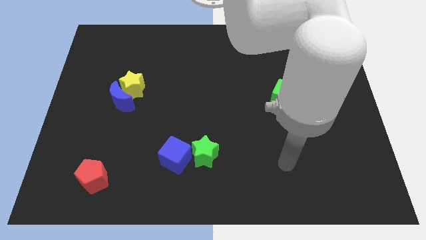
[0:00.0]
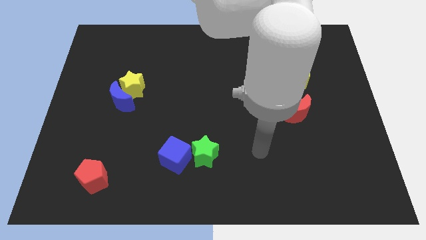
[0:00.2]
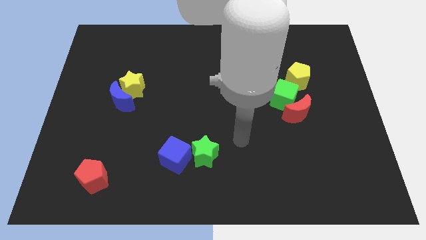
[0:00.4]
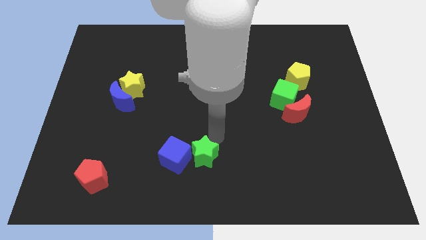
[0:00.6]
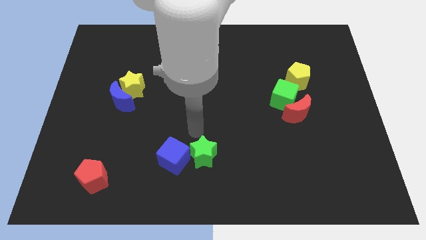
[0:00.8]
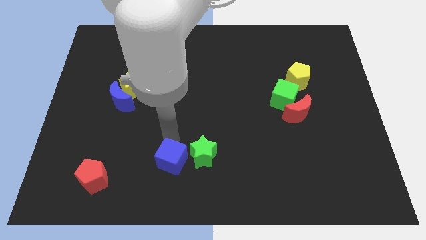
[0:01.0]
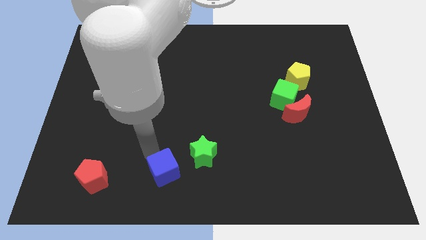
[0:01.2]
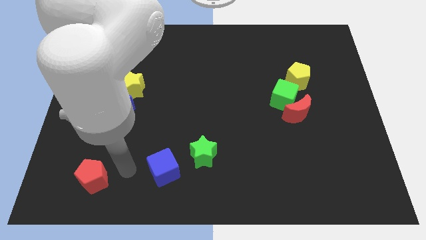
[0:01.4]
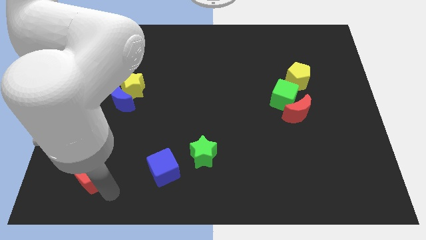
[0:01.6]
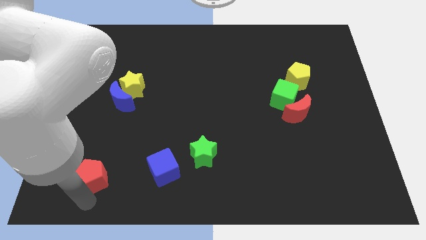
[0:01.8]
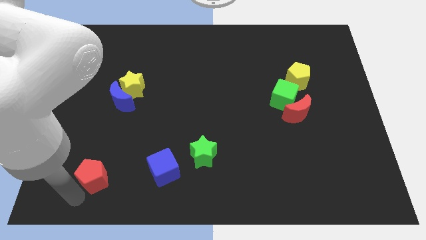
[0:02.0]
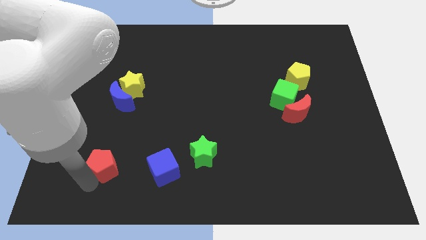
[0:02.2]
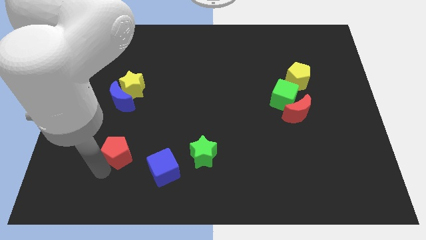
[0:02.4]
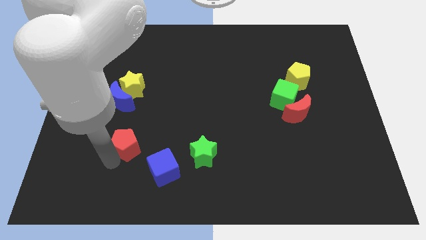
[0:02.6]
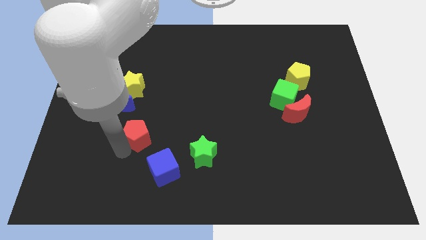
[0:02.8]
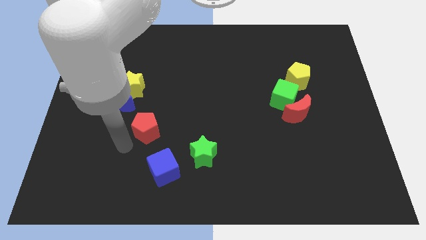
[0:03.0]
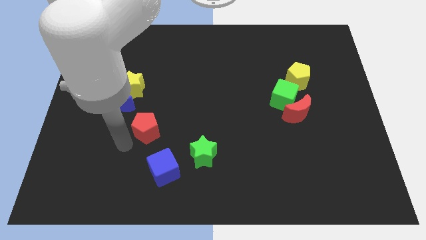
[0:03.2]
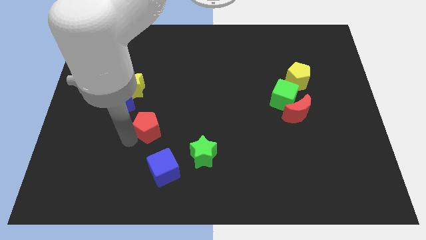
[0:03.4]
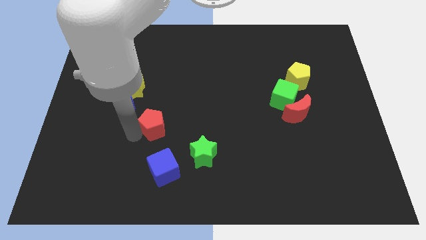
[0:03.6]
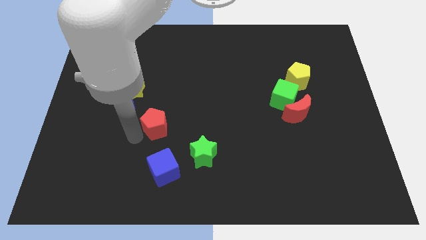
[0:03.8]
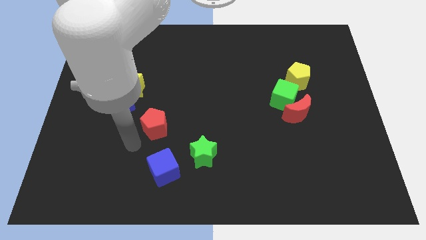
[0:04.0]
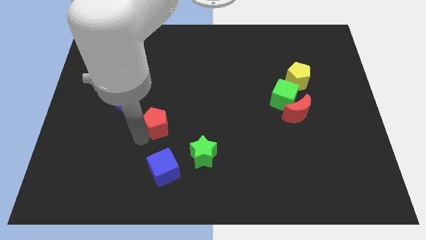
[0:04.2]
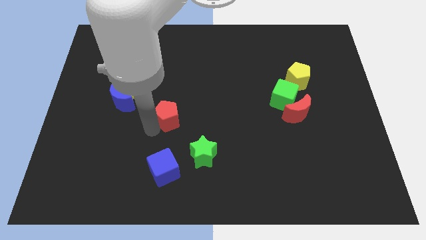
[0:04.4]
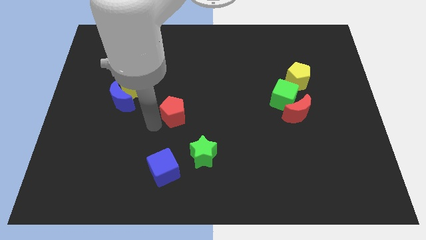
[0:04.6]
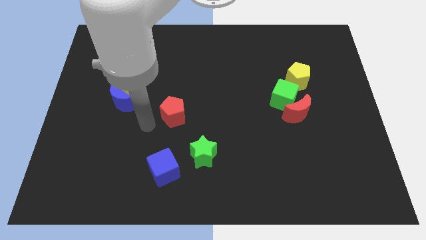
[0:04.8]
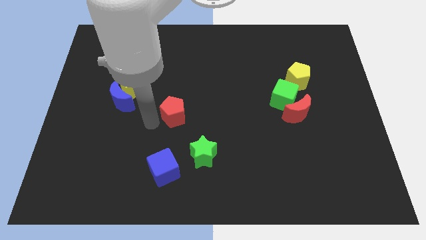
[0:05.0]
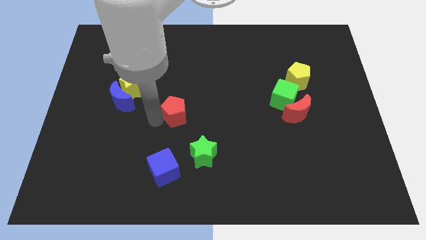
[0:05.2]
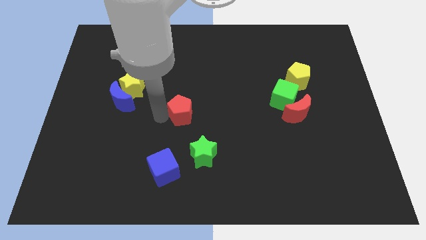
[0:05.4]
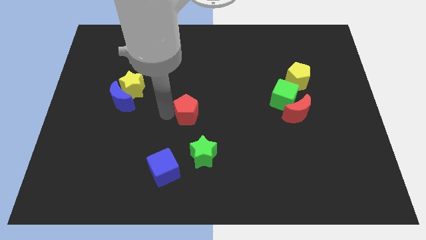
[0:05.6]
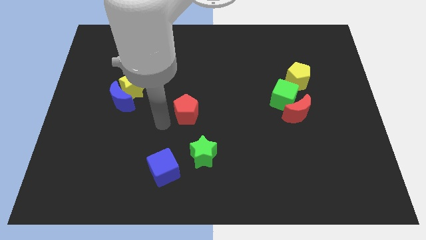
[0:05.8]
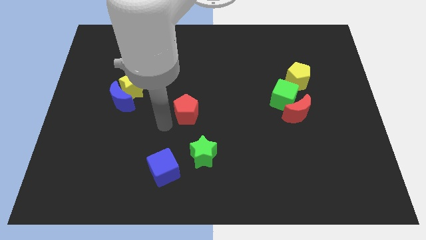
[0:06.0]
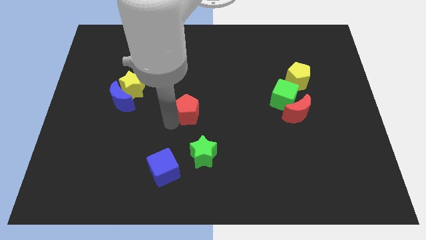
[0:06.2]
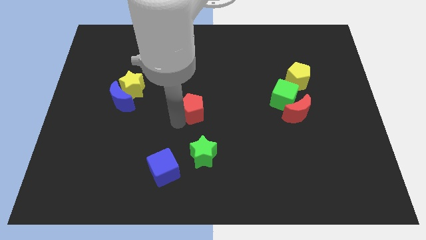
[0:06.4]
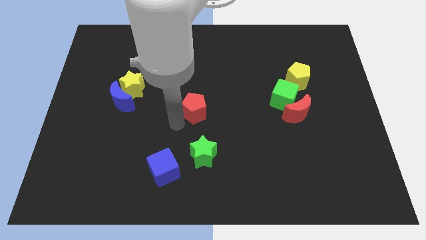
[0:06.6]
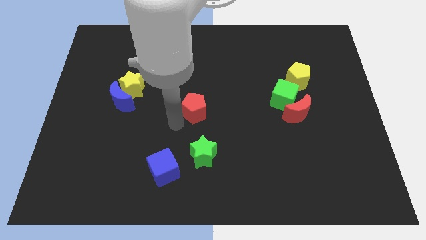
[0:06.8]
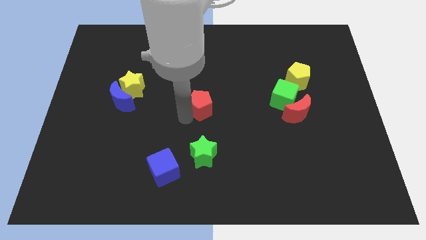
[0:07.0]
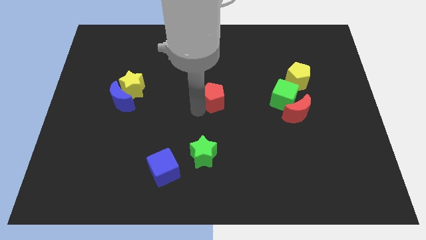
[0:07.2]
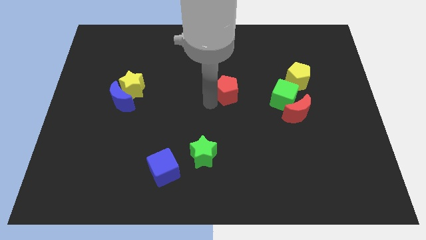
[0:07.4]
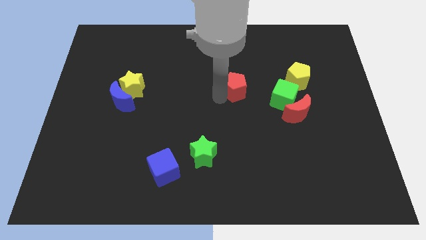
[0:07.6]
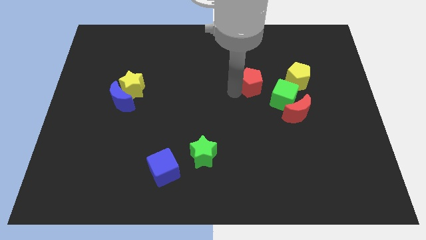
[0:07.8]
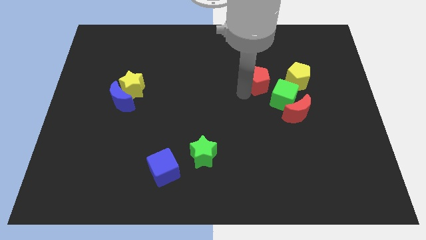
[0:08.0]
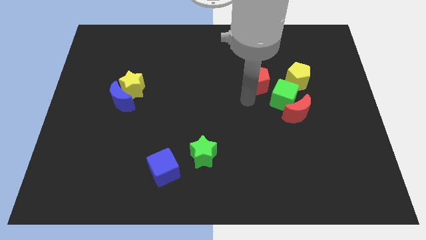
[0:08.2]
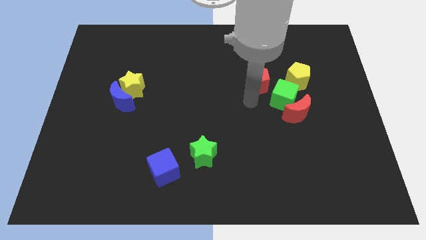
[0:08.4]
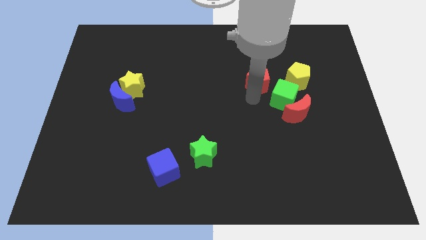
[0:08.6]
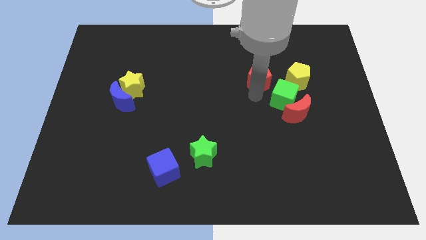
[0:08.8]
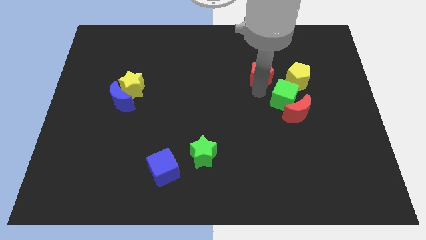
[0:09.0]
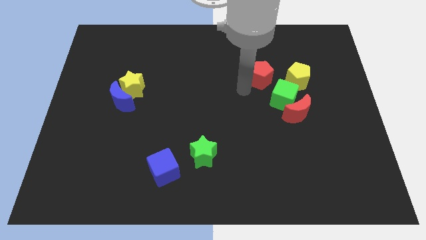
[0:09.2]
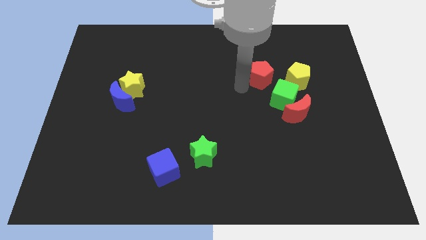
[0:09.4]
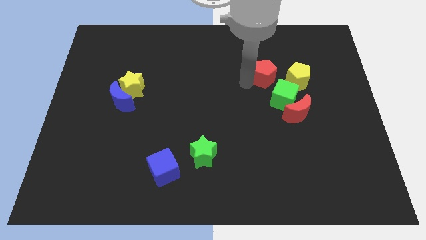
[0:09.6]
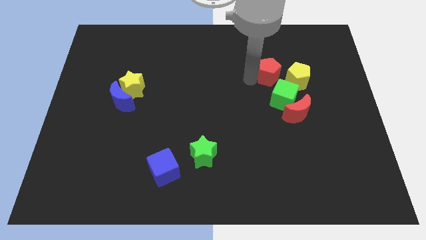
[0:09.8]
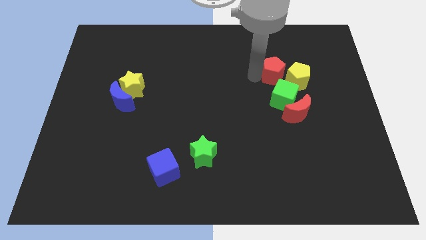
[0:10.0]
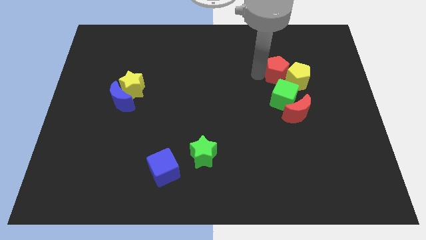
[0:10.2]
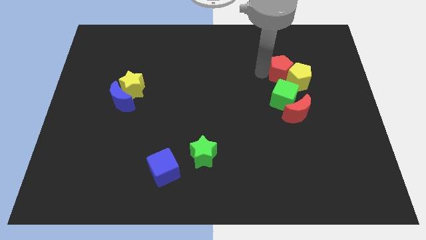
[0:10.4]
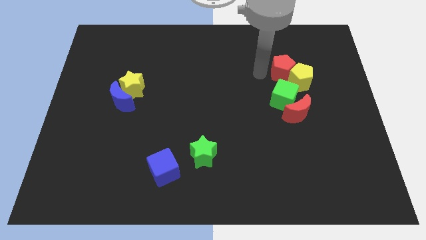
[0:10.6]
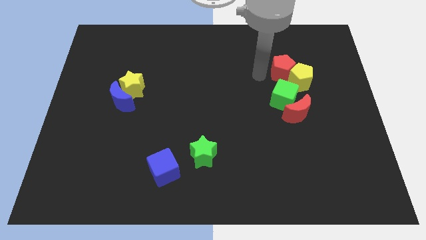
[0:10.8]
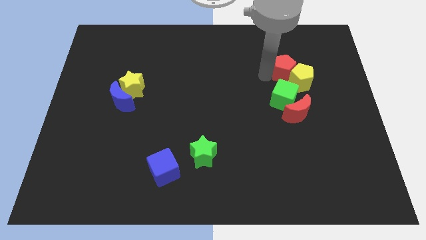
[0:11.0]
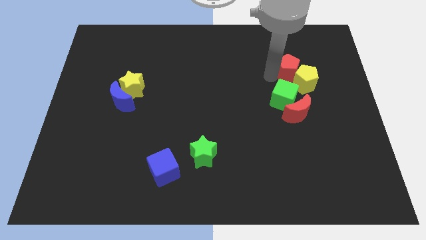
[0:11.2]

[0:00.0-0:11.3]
slide the red pentagon diagonally up and to the right of the green cube

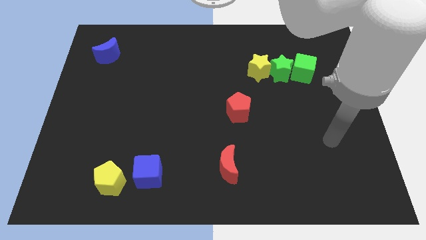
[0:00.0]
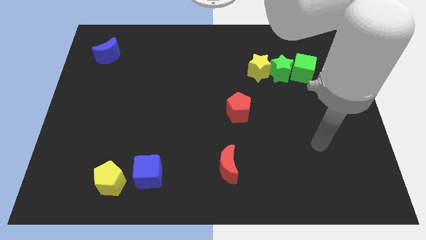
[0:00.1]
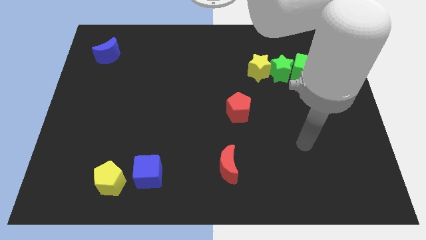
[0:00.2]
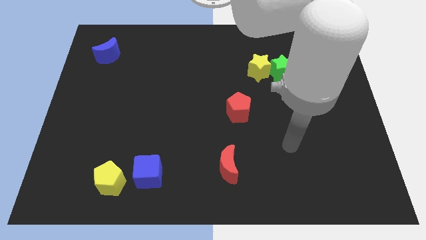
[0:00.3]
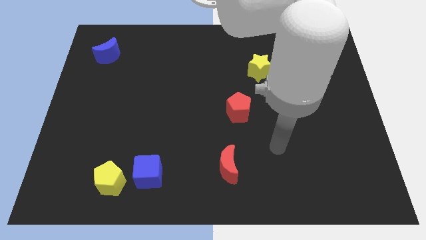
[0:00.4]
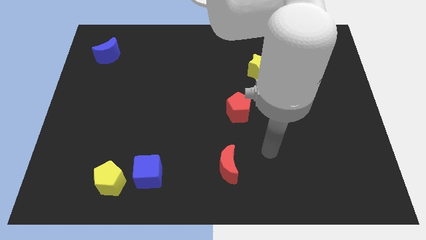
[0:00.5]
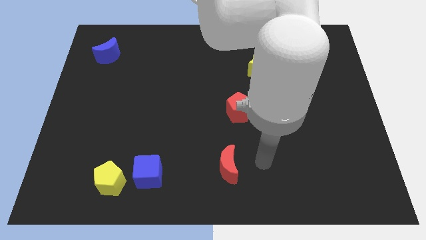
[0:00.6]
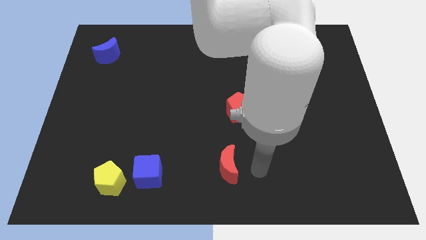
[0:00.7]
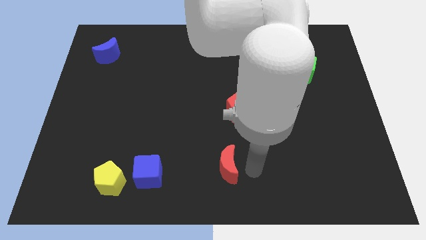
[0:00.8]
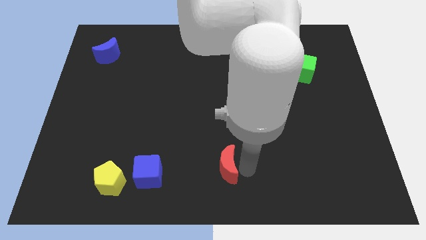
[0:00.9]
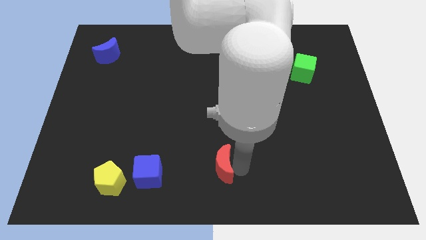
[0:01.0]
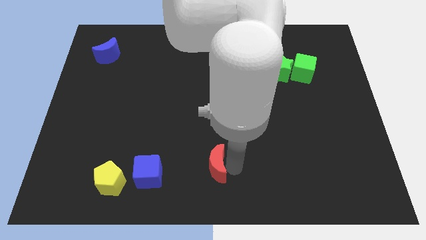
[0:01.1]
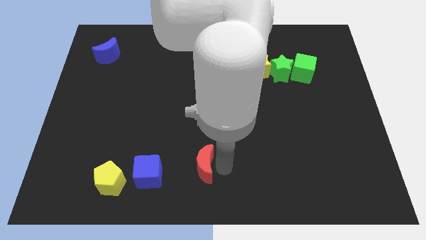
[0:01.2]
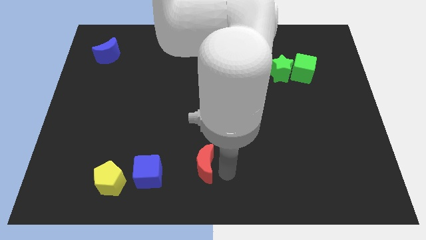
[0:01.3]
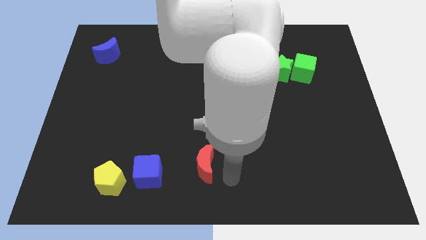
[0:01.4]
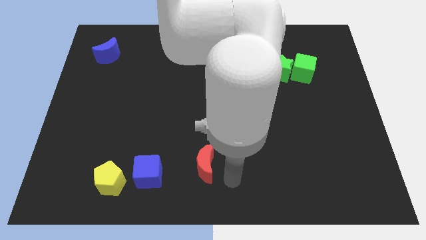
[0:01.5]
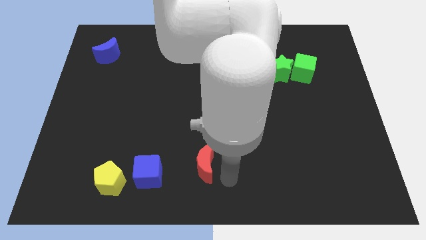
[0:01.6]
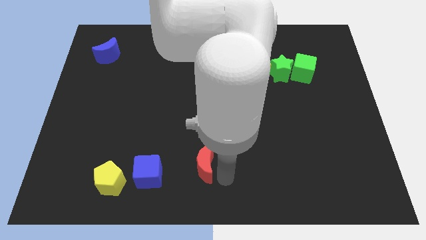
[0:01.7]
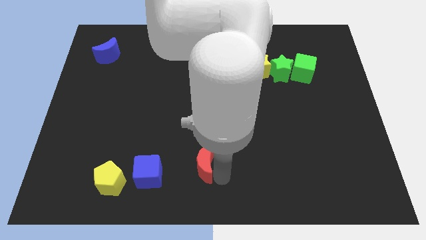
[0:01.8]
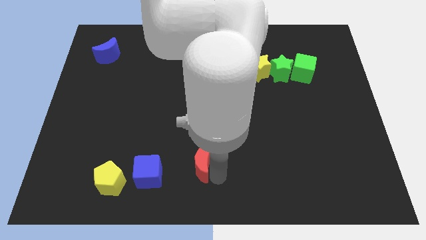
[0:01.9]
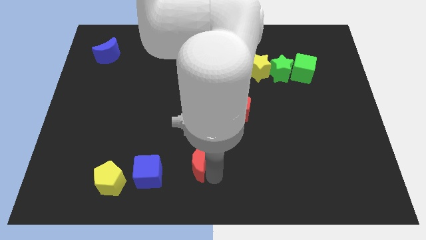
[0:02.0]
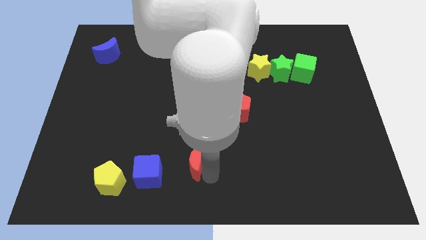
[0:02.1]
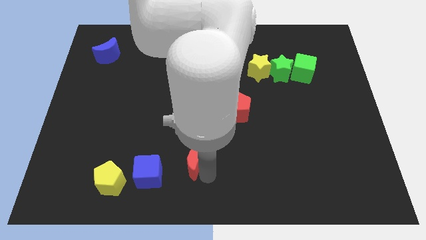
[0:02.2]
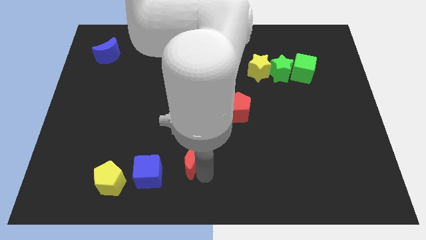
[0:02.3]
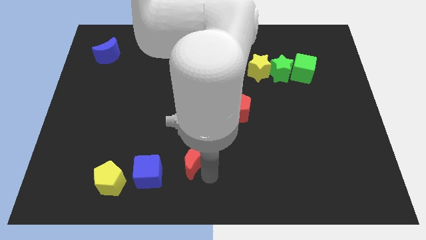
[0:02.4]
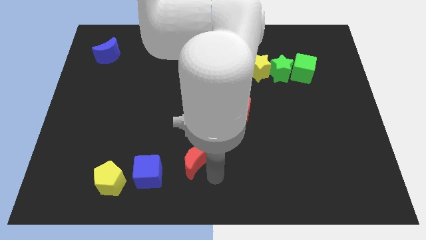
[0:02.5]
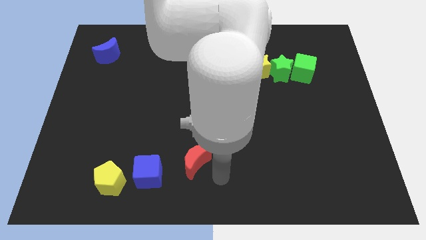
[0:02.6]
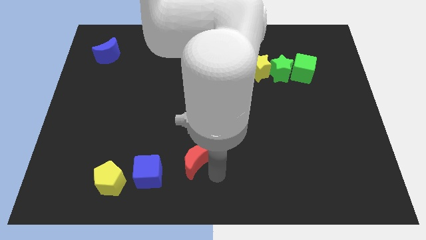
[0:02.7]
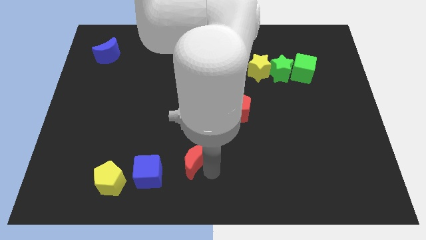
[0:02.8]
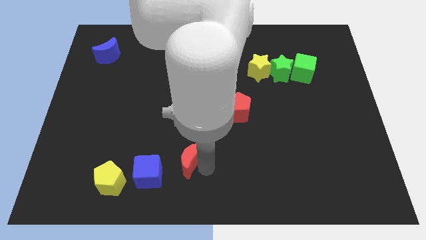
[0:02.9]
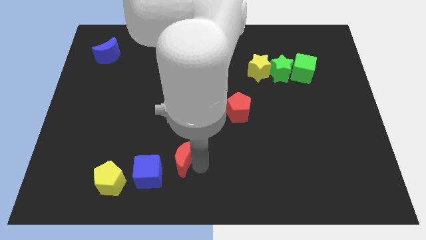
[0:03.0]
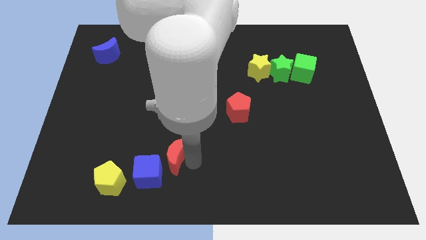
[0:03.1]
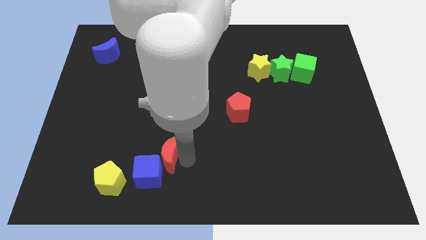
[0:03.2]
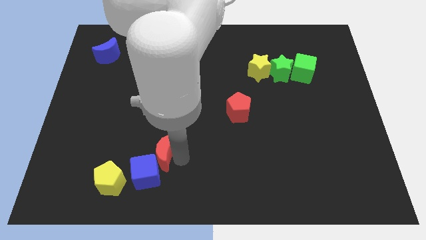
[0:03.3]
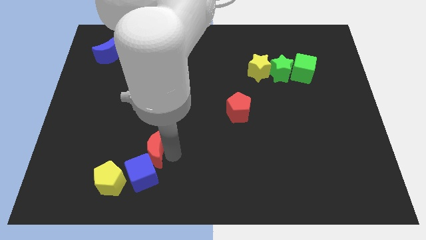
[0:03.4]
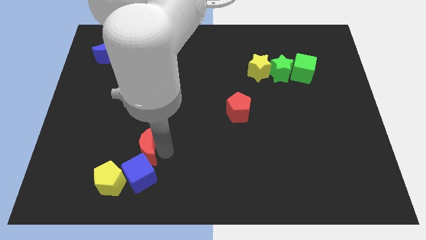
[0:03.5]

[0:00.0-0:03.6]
put the red moon diagonally up and to the left of the blue cube
